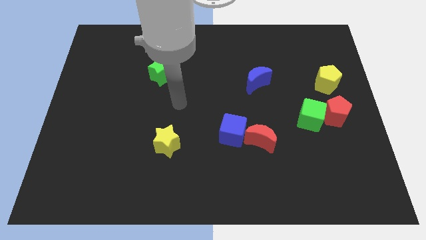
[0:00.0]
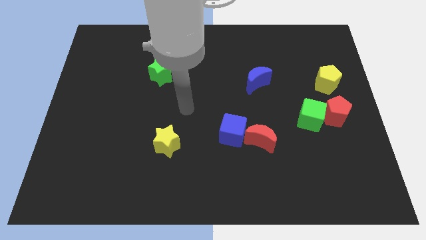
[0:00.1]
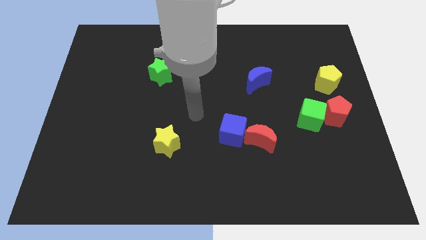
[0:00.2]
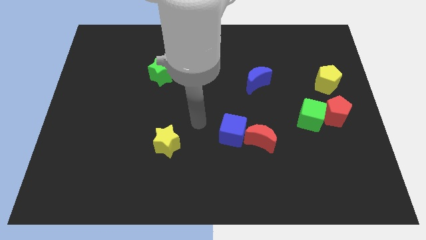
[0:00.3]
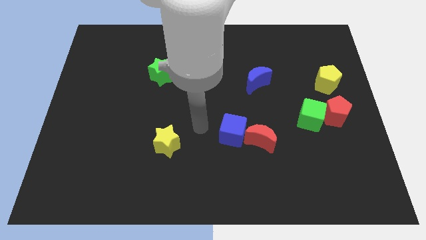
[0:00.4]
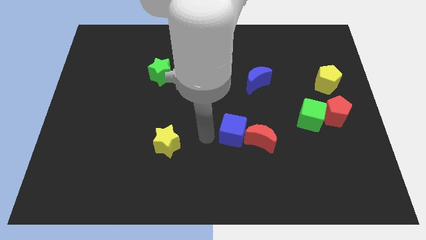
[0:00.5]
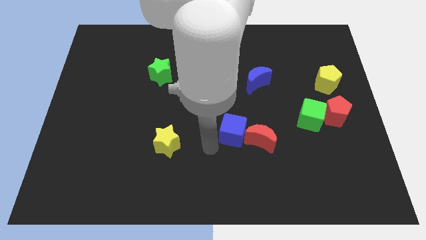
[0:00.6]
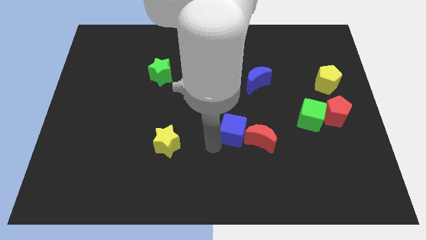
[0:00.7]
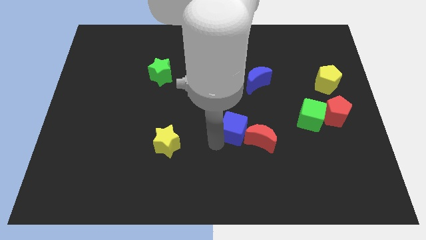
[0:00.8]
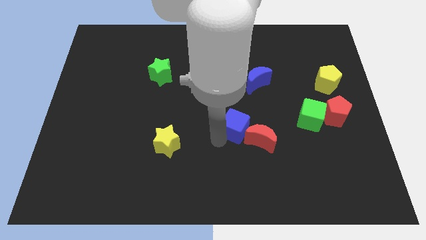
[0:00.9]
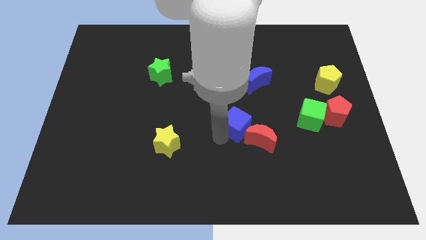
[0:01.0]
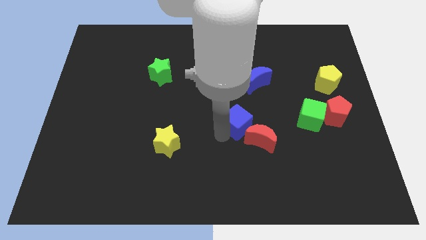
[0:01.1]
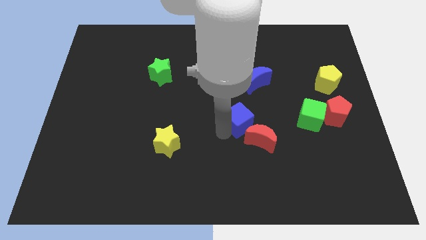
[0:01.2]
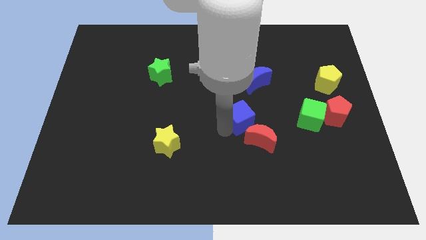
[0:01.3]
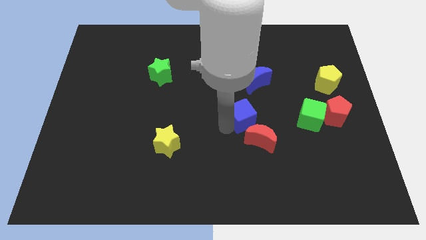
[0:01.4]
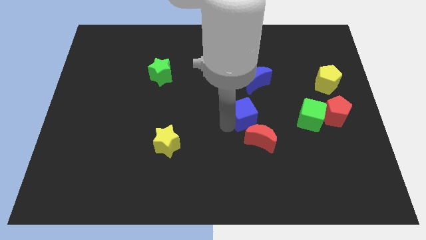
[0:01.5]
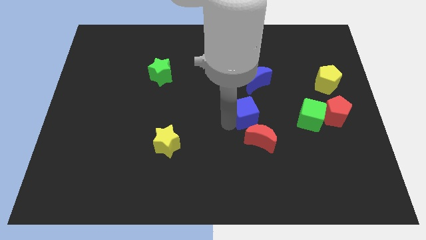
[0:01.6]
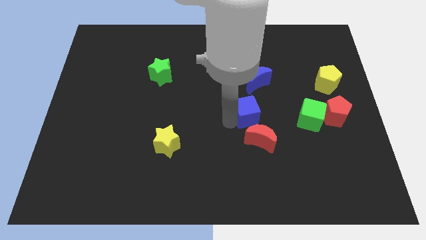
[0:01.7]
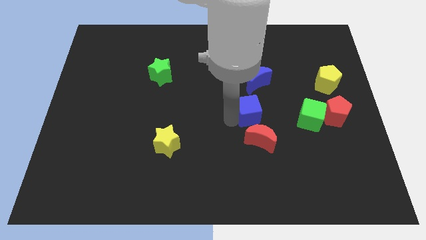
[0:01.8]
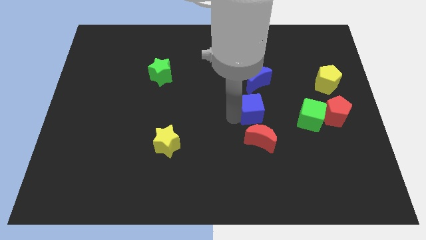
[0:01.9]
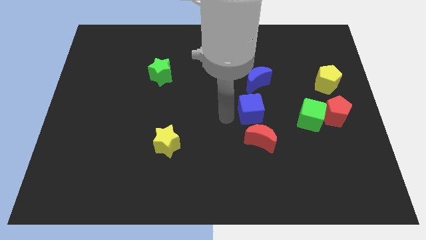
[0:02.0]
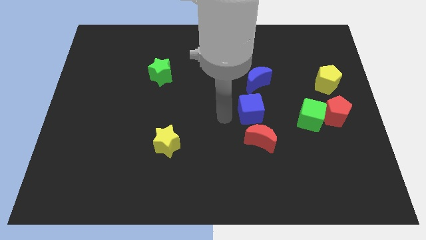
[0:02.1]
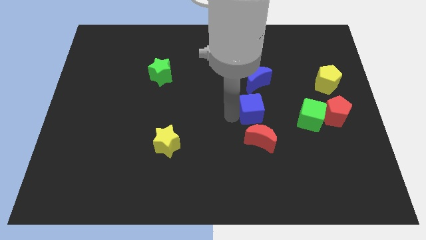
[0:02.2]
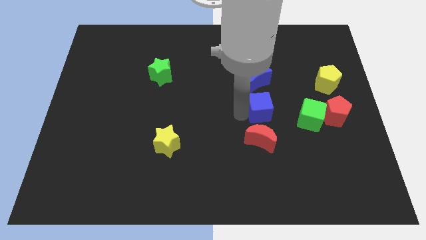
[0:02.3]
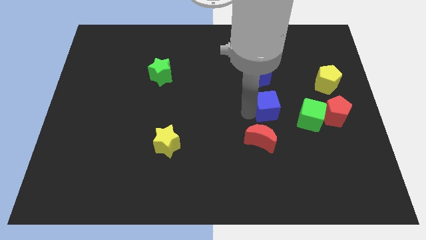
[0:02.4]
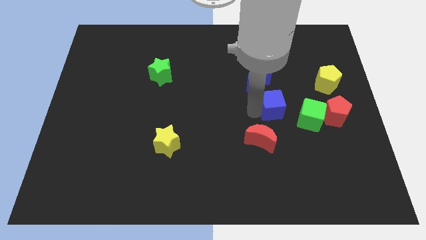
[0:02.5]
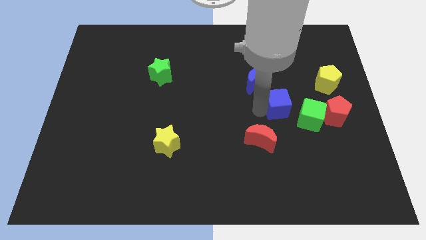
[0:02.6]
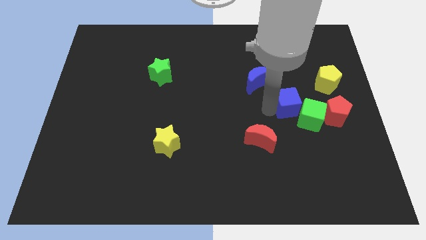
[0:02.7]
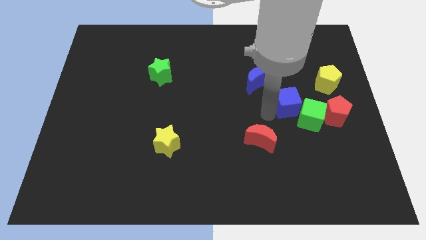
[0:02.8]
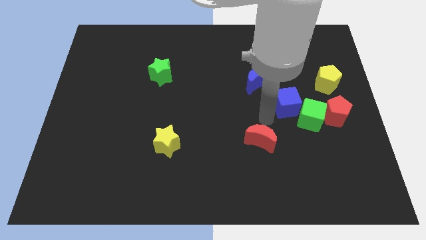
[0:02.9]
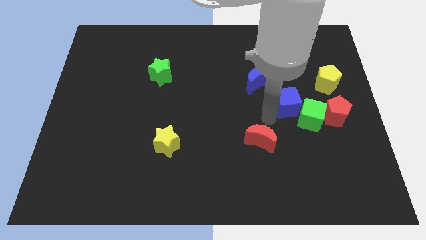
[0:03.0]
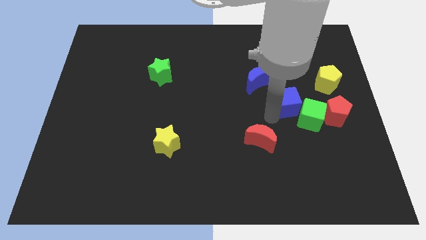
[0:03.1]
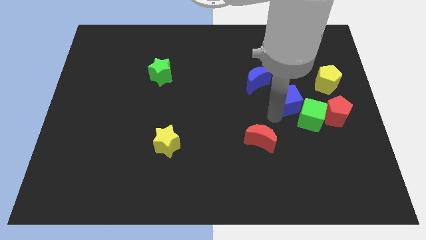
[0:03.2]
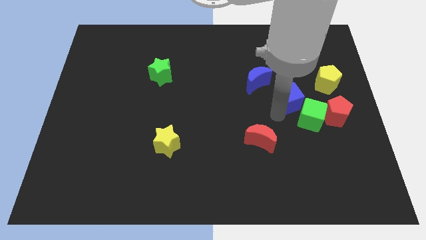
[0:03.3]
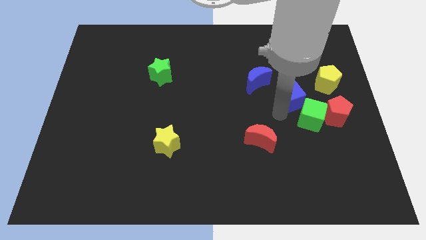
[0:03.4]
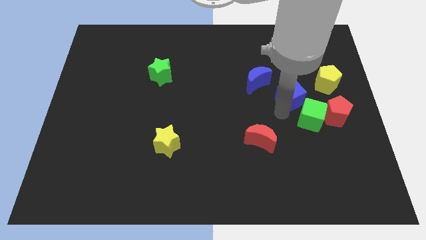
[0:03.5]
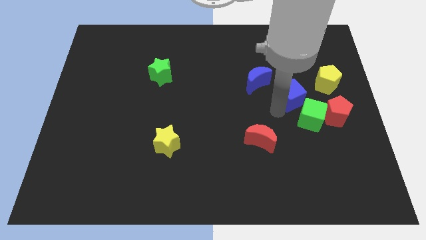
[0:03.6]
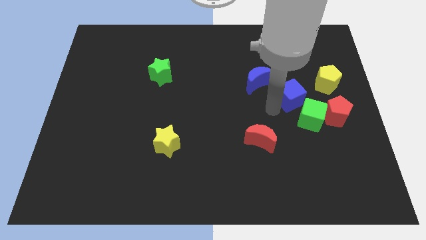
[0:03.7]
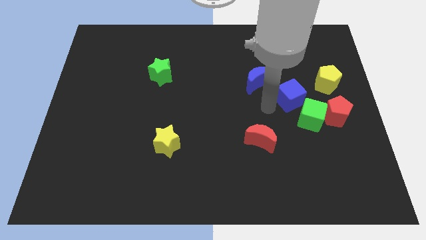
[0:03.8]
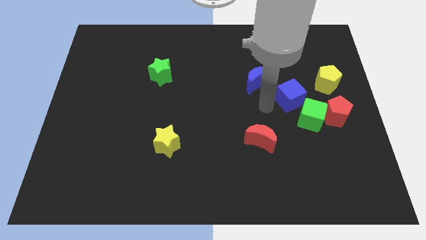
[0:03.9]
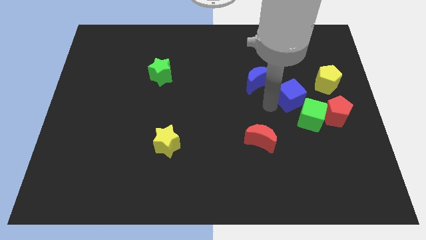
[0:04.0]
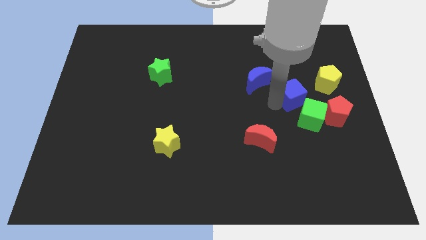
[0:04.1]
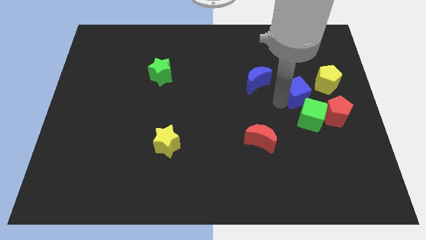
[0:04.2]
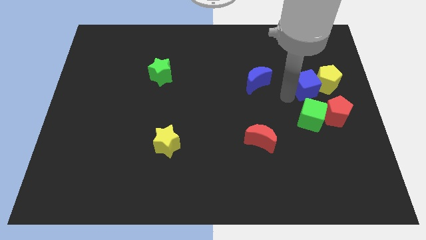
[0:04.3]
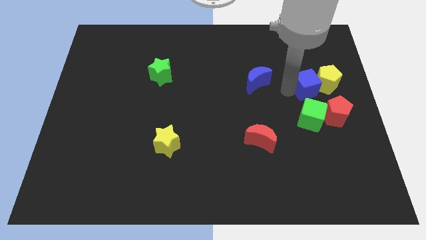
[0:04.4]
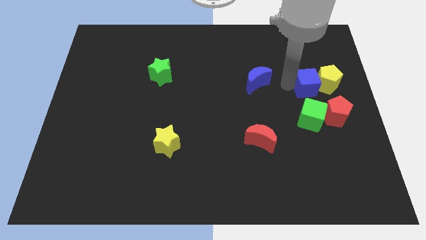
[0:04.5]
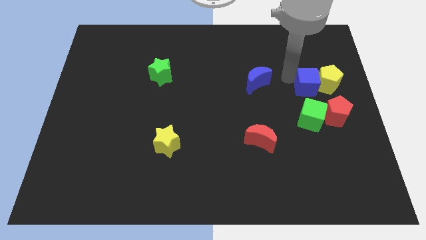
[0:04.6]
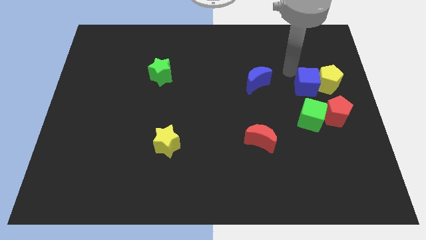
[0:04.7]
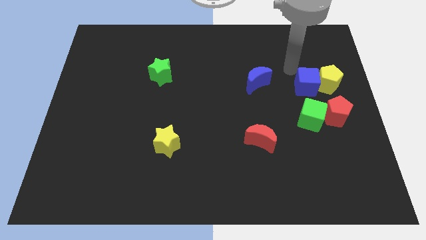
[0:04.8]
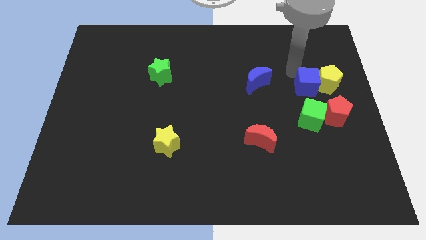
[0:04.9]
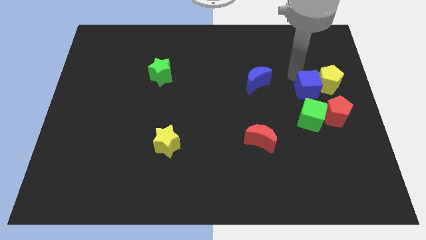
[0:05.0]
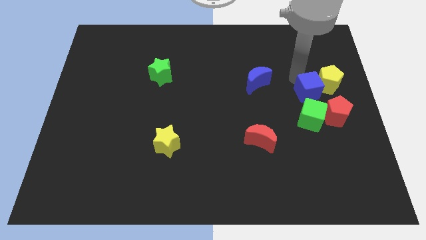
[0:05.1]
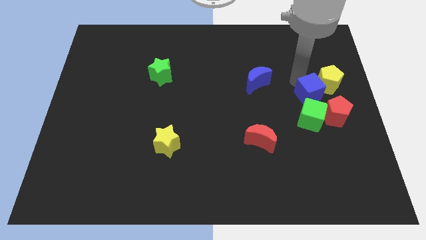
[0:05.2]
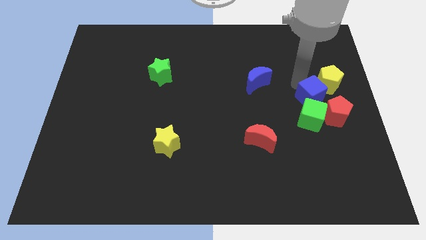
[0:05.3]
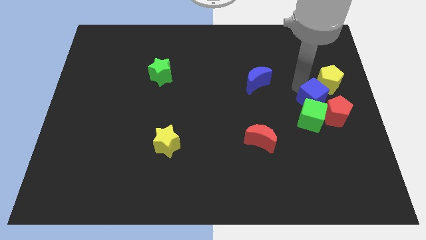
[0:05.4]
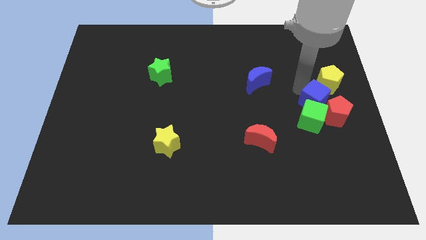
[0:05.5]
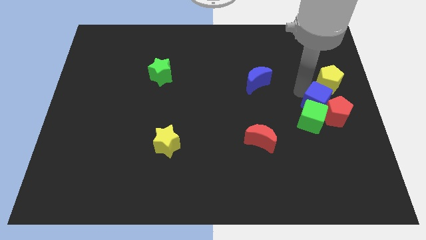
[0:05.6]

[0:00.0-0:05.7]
move the blue cube towards the red pentagon

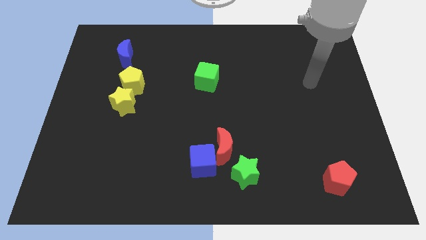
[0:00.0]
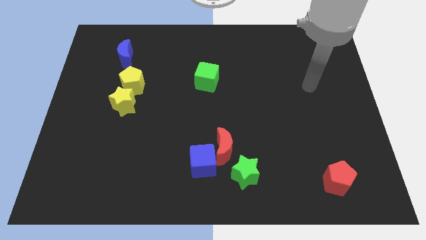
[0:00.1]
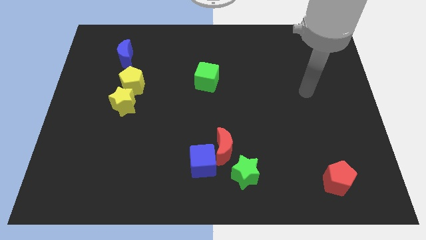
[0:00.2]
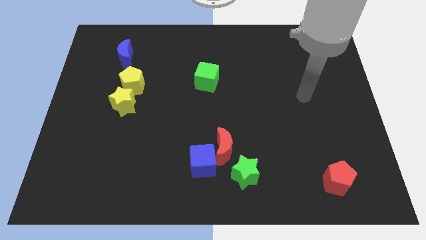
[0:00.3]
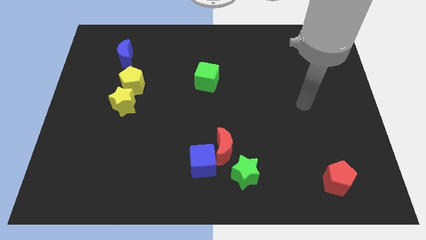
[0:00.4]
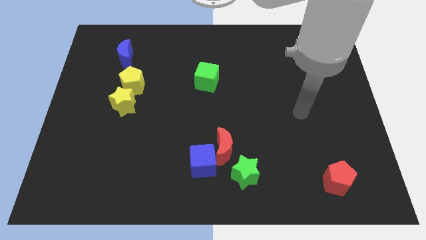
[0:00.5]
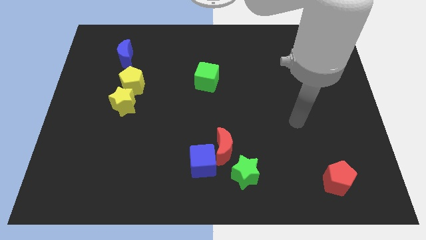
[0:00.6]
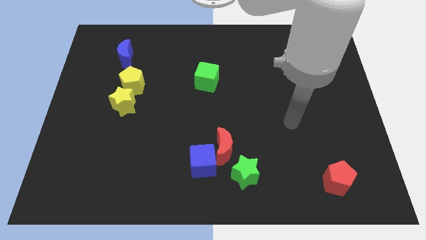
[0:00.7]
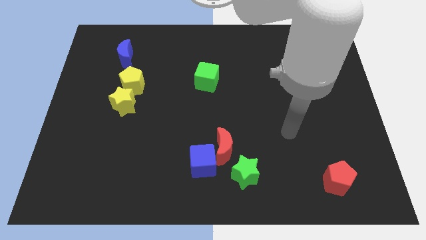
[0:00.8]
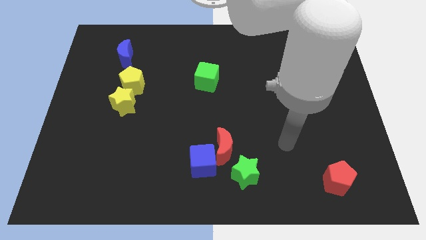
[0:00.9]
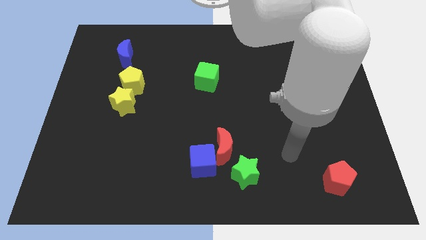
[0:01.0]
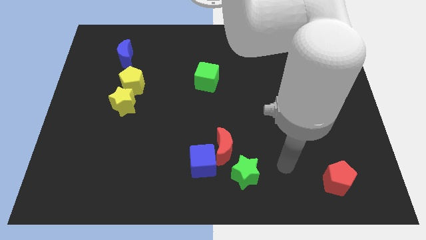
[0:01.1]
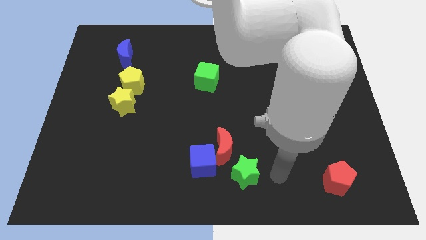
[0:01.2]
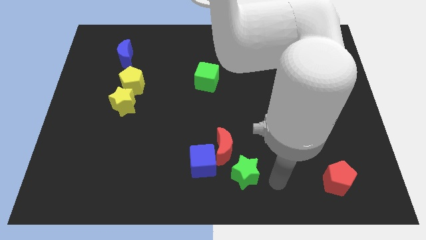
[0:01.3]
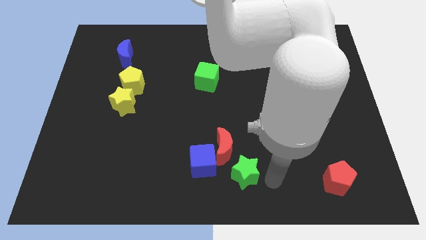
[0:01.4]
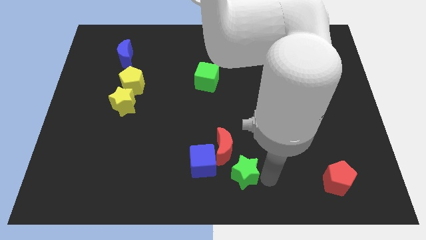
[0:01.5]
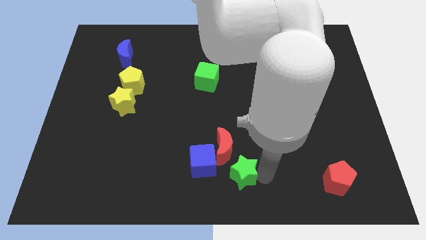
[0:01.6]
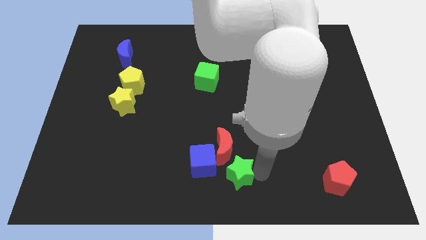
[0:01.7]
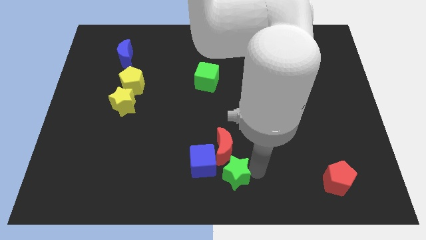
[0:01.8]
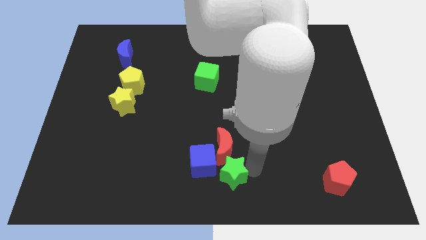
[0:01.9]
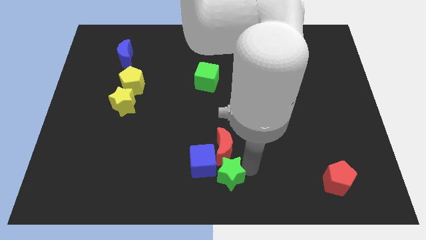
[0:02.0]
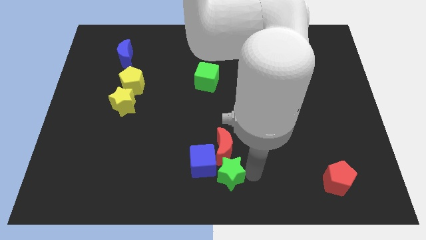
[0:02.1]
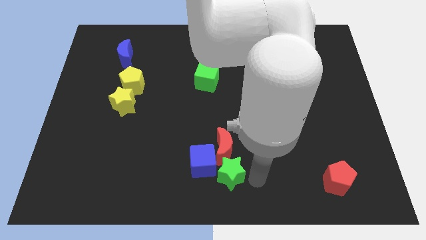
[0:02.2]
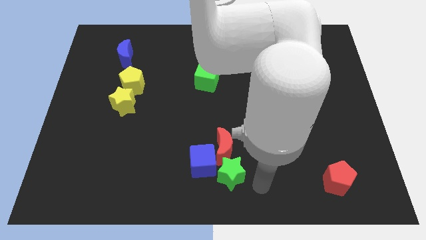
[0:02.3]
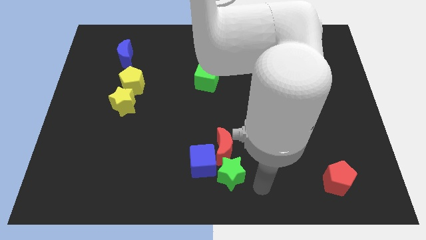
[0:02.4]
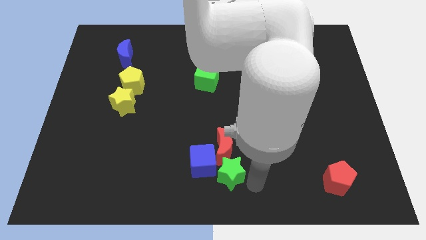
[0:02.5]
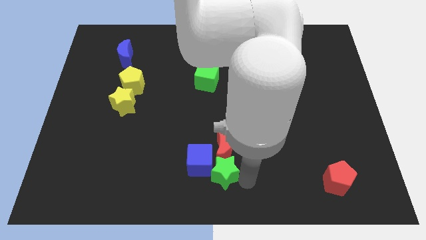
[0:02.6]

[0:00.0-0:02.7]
slide the green star close to the blue cube
